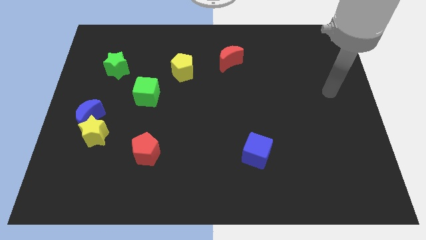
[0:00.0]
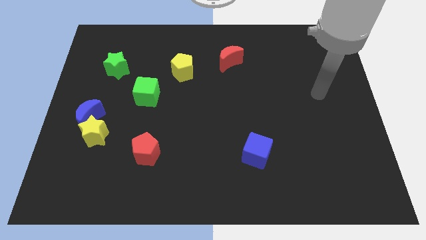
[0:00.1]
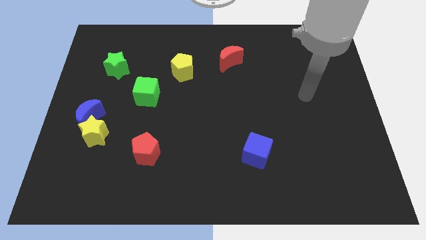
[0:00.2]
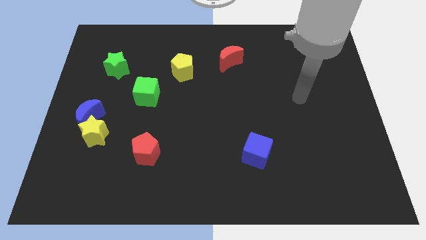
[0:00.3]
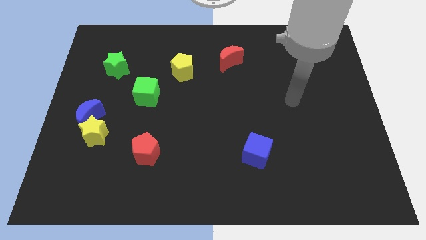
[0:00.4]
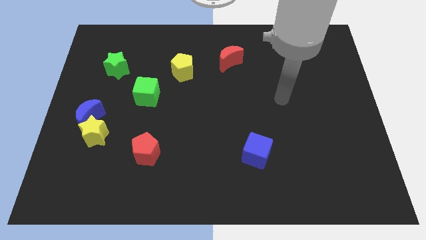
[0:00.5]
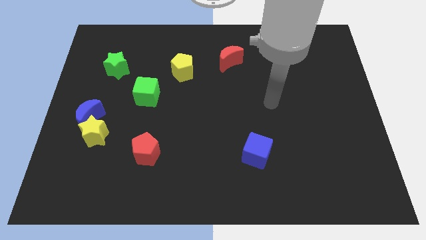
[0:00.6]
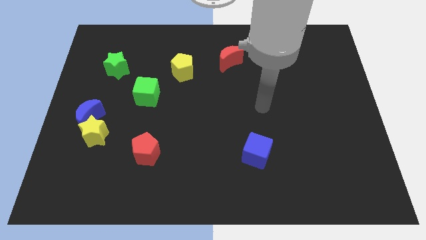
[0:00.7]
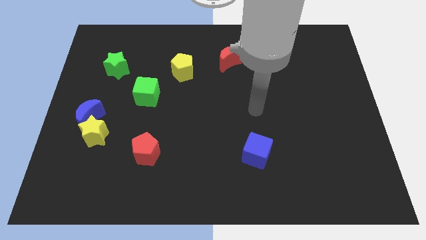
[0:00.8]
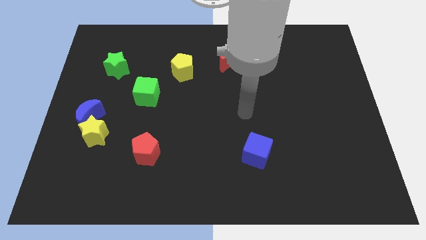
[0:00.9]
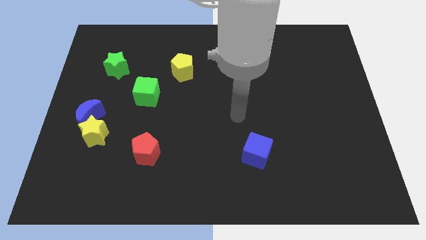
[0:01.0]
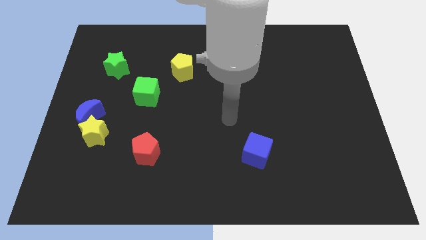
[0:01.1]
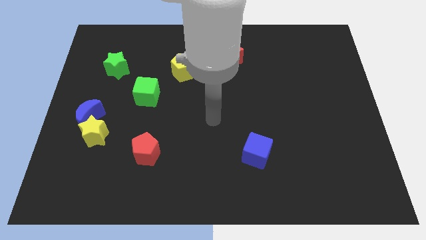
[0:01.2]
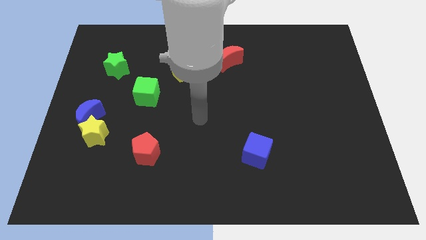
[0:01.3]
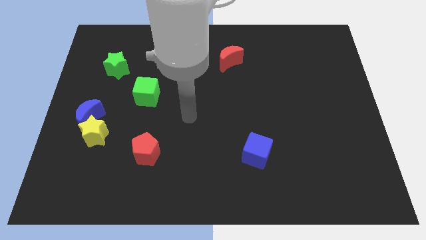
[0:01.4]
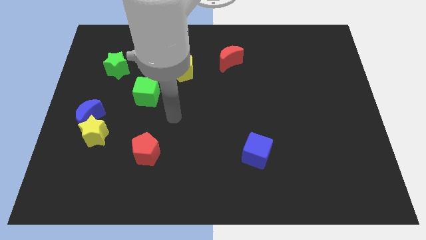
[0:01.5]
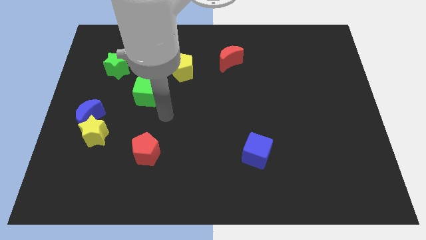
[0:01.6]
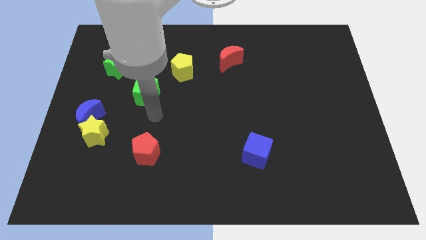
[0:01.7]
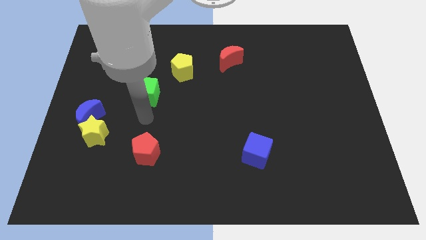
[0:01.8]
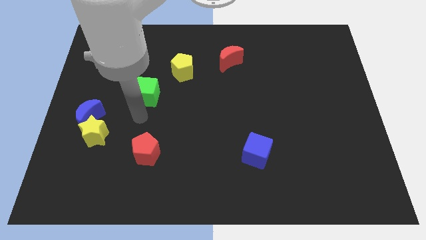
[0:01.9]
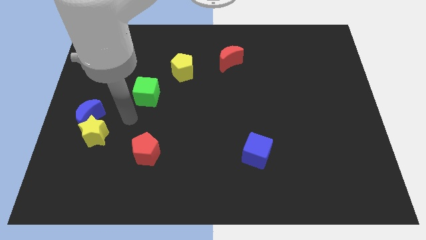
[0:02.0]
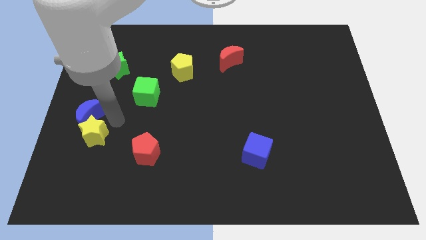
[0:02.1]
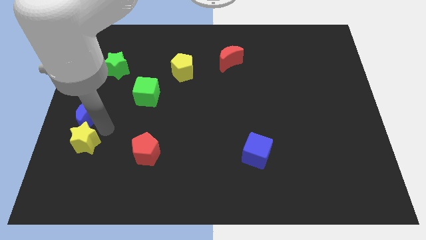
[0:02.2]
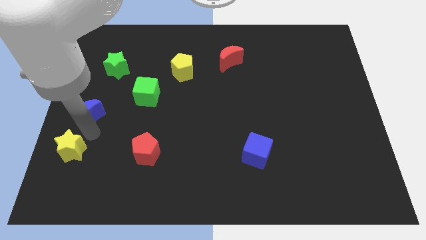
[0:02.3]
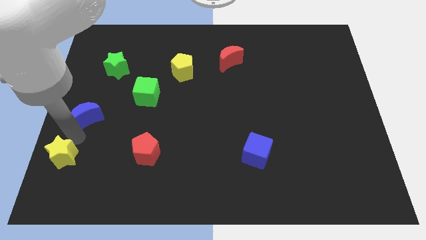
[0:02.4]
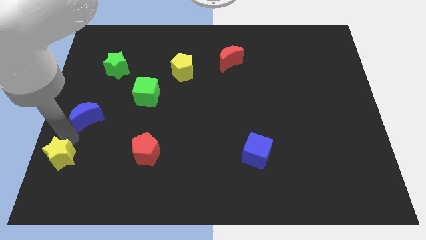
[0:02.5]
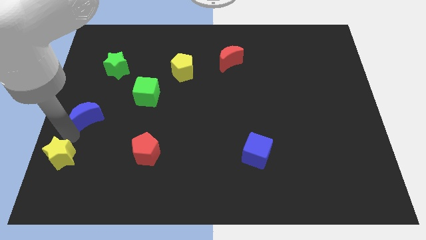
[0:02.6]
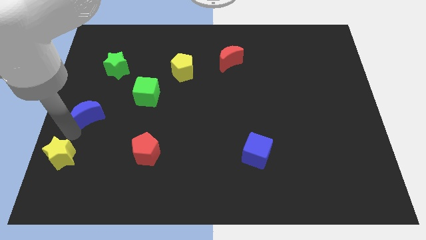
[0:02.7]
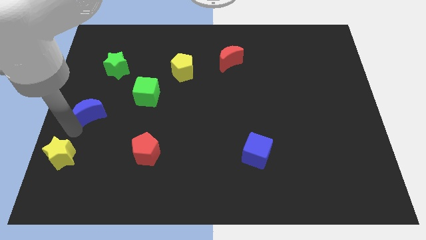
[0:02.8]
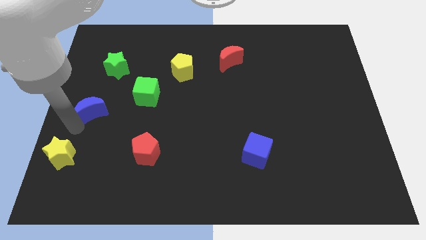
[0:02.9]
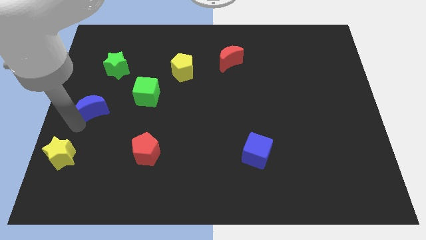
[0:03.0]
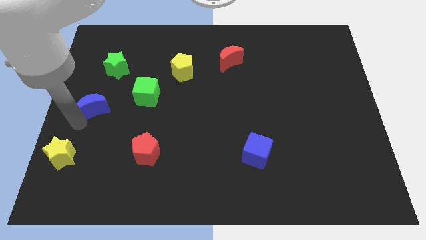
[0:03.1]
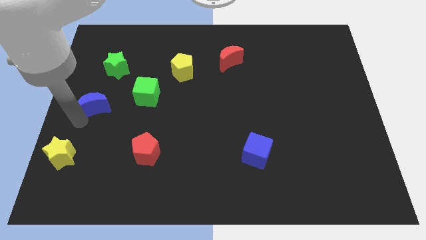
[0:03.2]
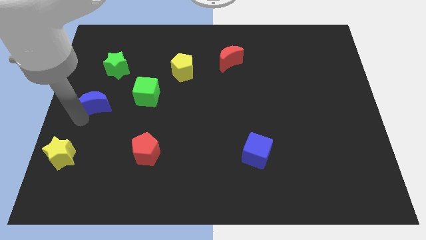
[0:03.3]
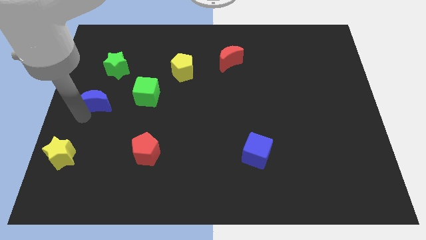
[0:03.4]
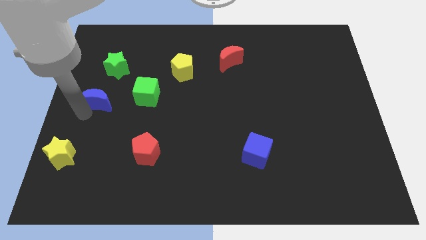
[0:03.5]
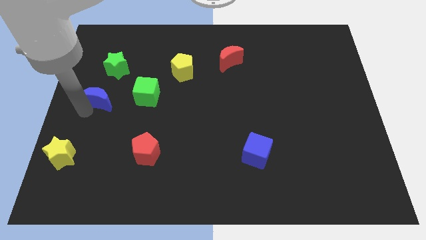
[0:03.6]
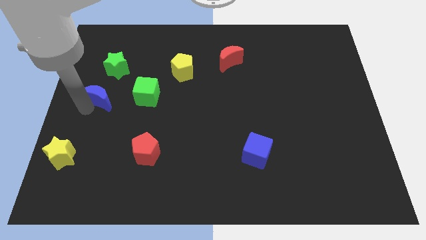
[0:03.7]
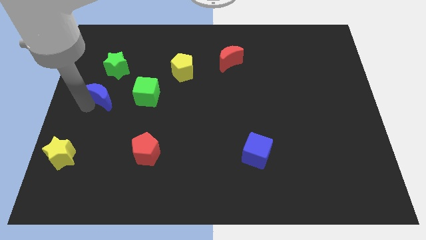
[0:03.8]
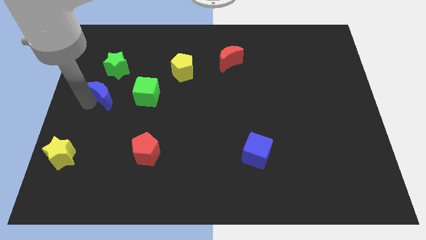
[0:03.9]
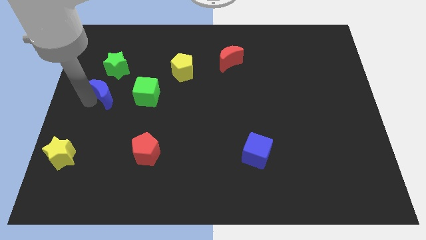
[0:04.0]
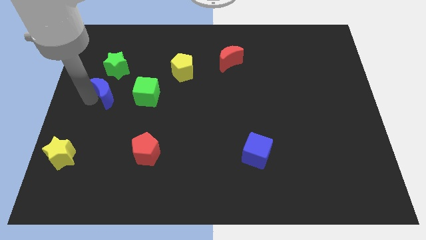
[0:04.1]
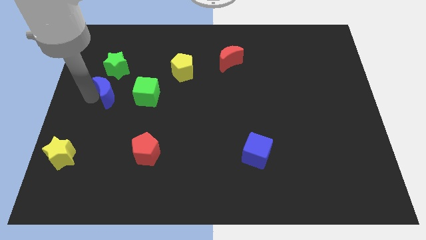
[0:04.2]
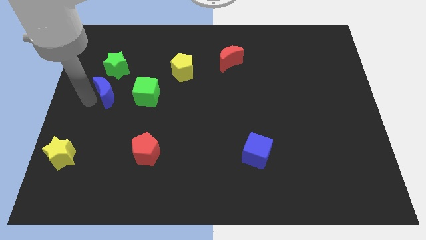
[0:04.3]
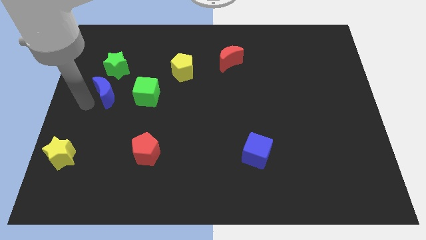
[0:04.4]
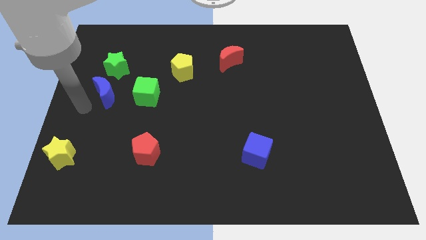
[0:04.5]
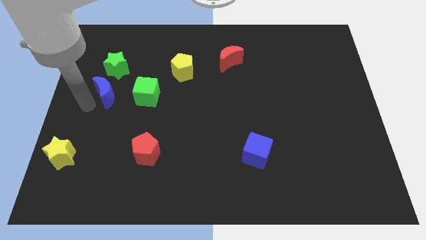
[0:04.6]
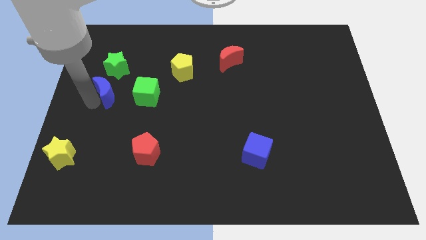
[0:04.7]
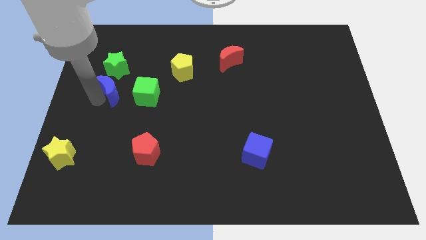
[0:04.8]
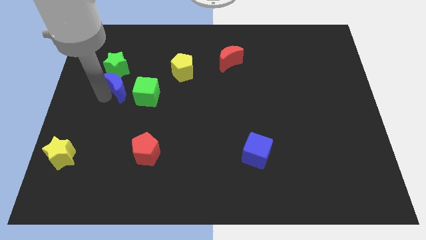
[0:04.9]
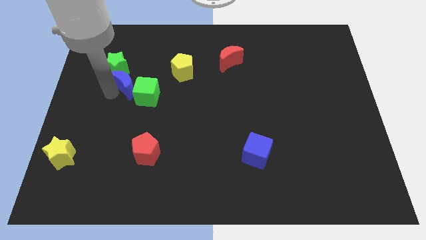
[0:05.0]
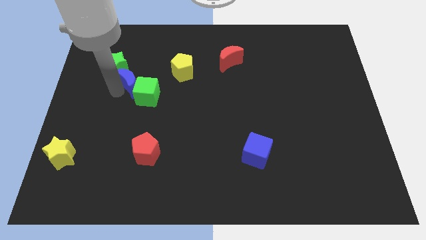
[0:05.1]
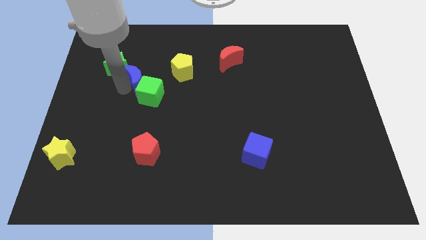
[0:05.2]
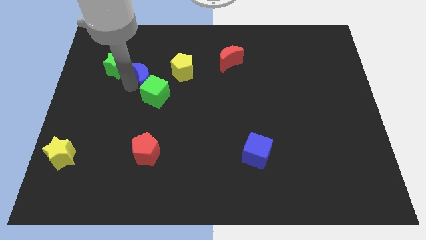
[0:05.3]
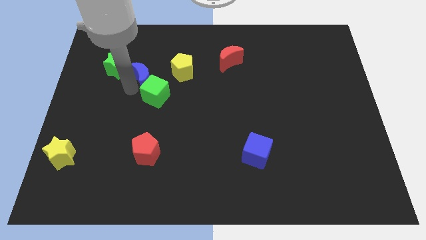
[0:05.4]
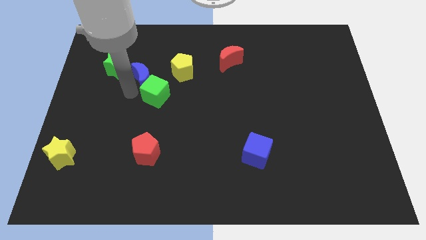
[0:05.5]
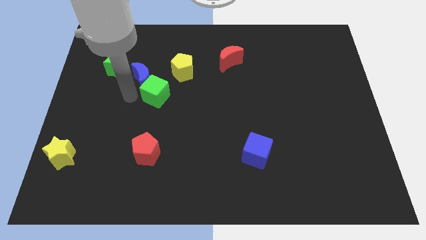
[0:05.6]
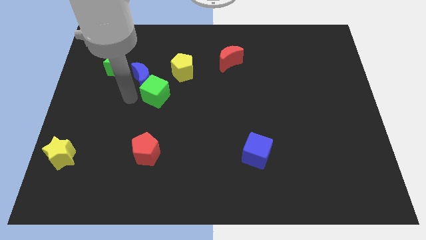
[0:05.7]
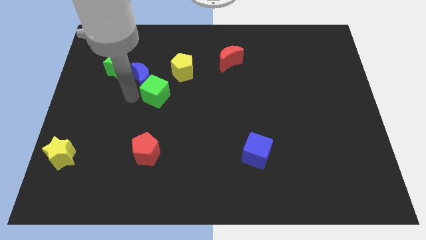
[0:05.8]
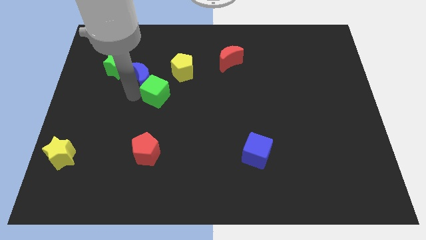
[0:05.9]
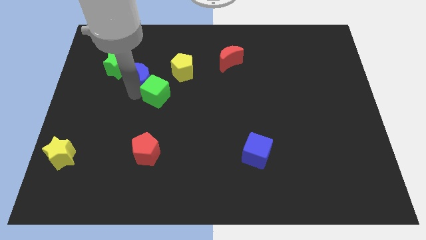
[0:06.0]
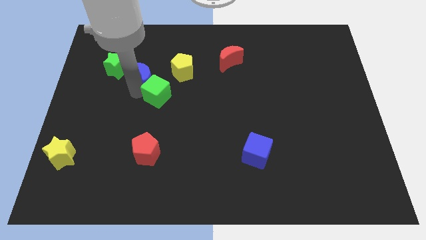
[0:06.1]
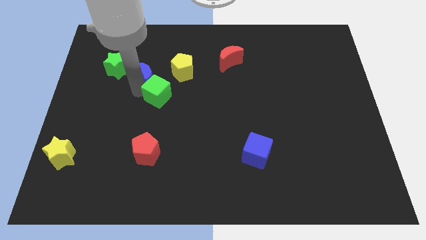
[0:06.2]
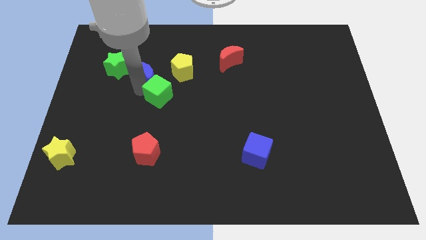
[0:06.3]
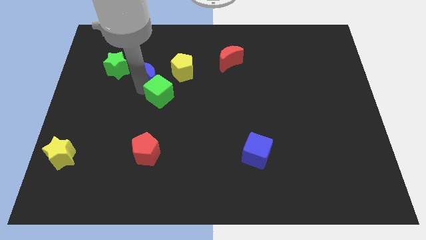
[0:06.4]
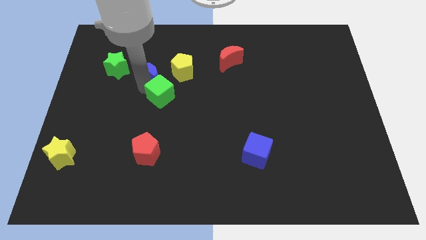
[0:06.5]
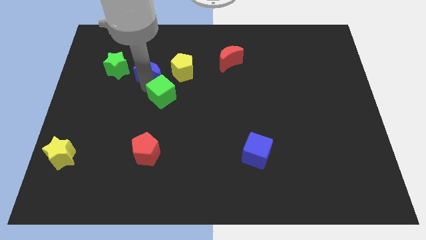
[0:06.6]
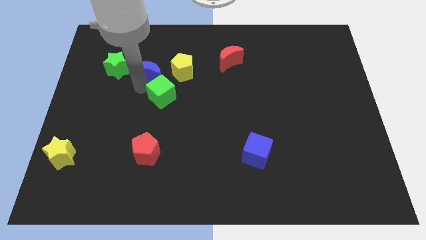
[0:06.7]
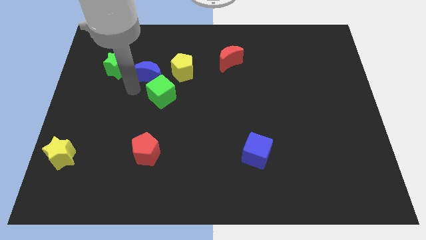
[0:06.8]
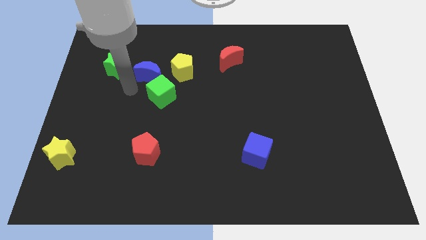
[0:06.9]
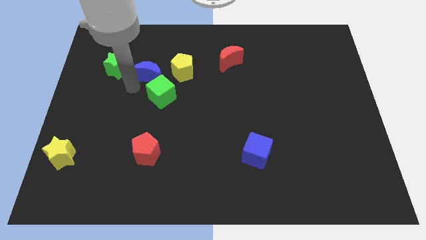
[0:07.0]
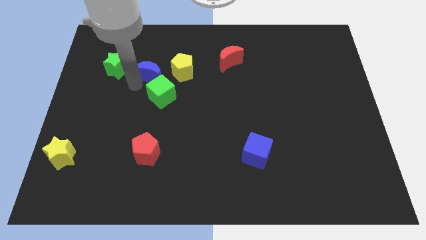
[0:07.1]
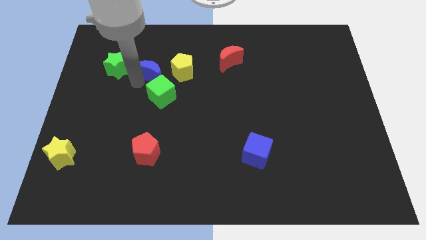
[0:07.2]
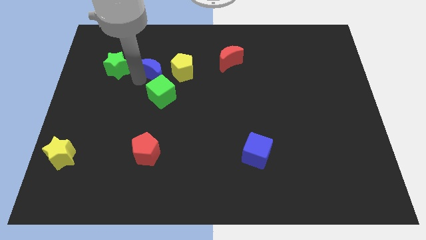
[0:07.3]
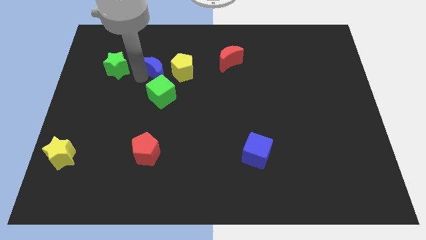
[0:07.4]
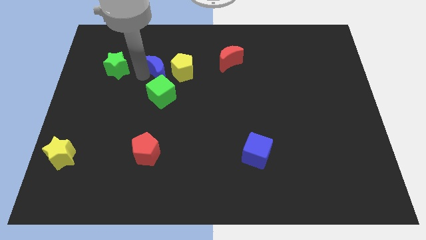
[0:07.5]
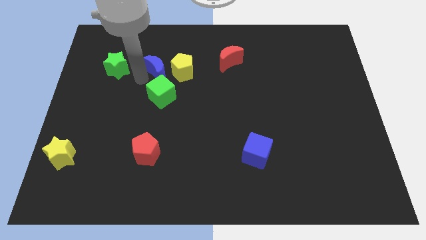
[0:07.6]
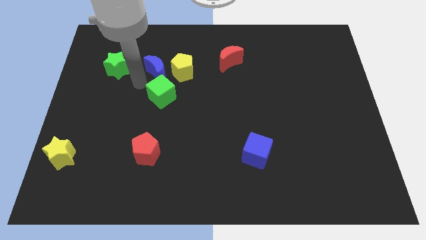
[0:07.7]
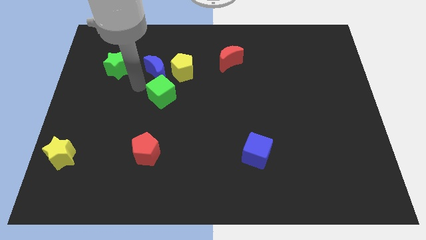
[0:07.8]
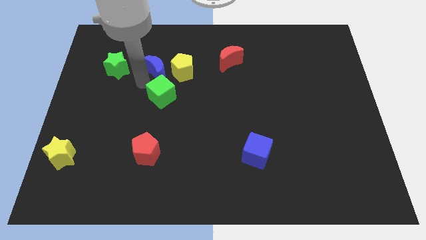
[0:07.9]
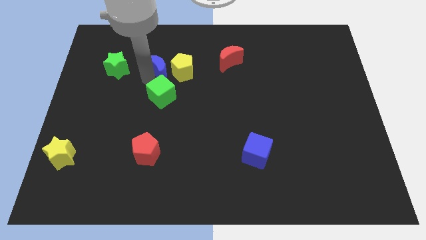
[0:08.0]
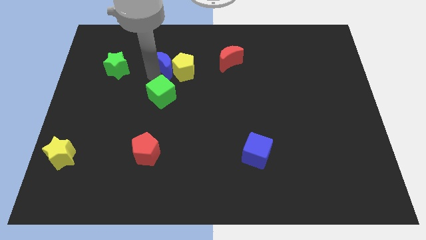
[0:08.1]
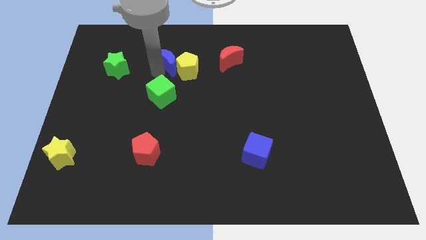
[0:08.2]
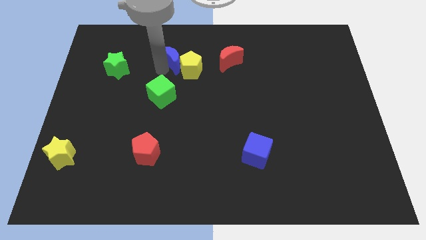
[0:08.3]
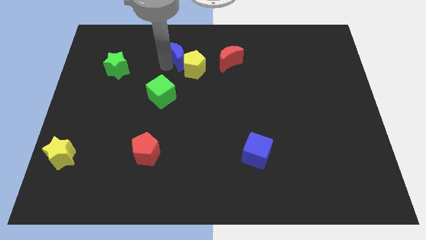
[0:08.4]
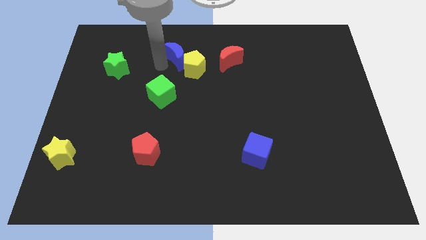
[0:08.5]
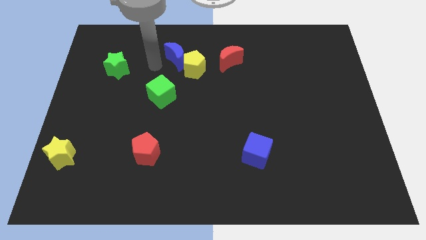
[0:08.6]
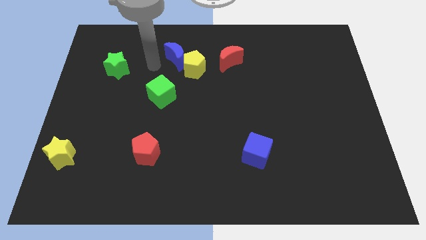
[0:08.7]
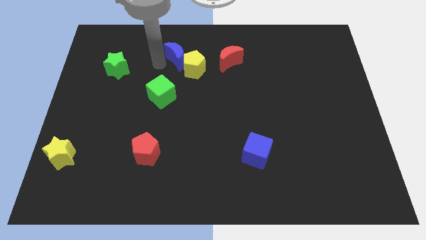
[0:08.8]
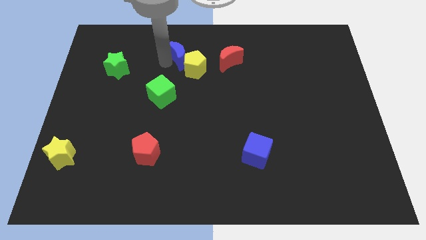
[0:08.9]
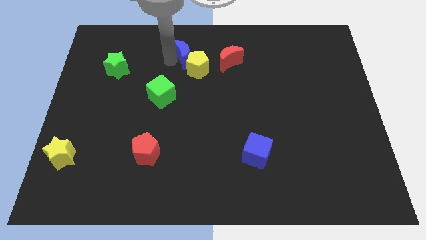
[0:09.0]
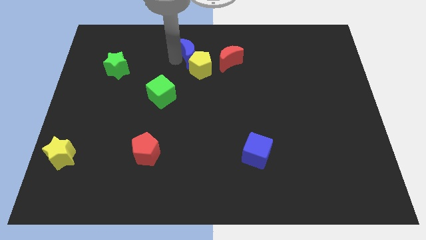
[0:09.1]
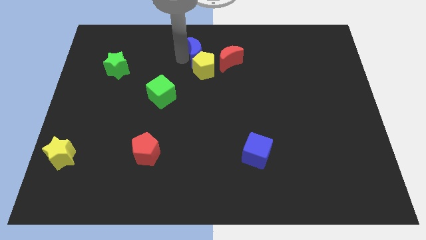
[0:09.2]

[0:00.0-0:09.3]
put the blue moon to the top
